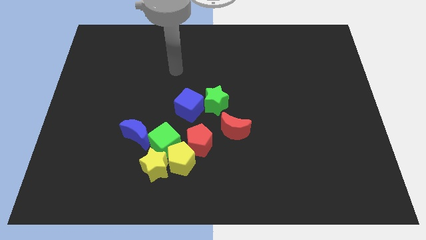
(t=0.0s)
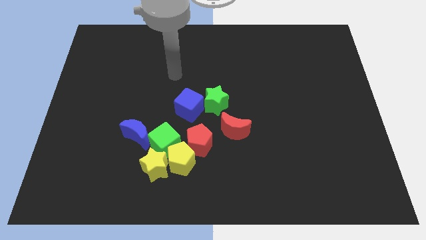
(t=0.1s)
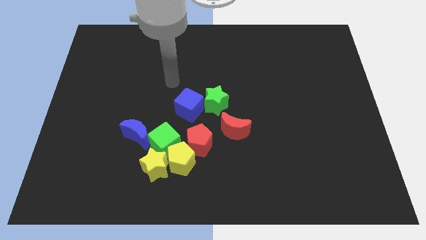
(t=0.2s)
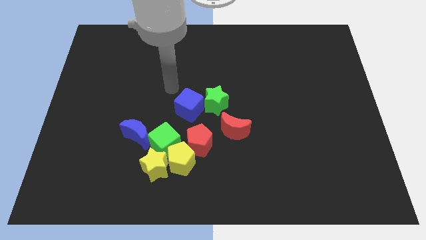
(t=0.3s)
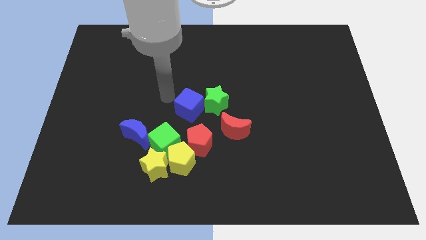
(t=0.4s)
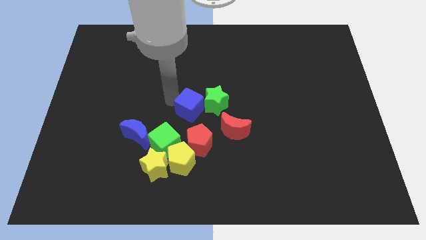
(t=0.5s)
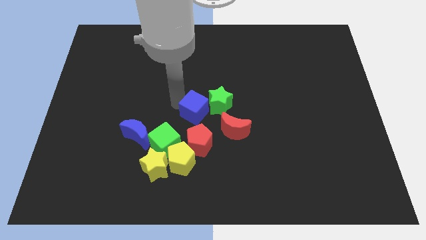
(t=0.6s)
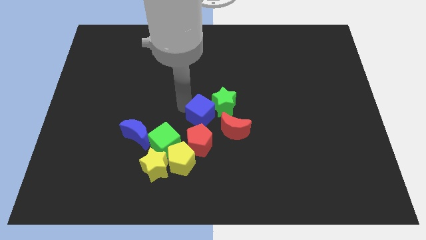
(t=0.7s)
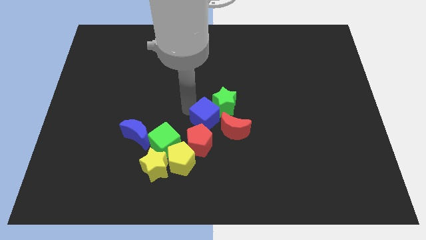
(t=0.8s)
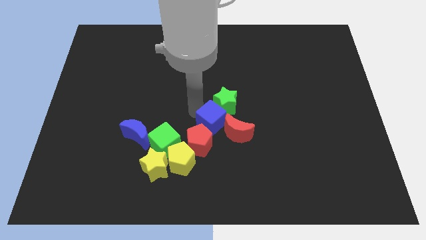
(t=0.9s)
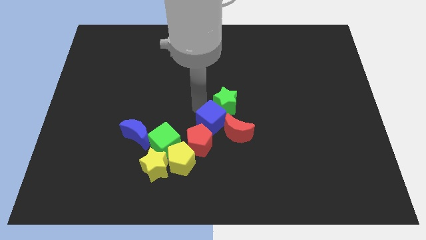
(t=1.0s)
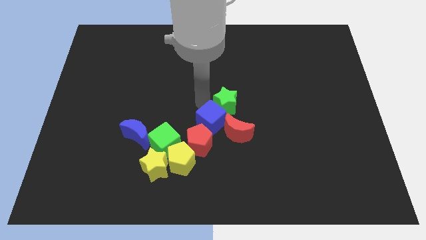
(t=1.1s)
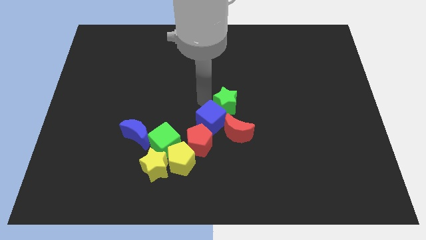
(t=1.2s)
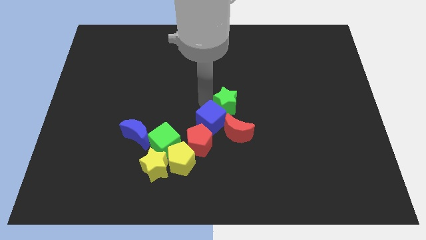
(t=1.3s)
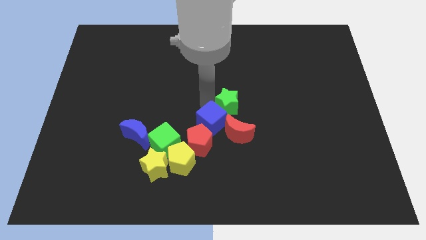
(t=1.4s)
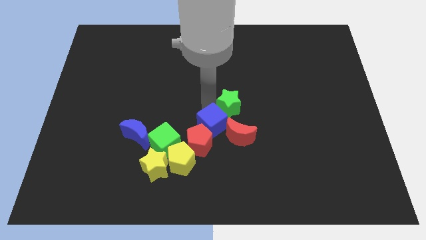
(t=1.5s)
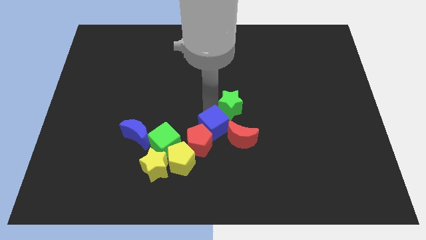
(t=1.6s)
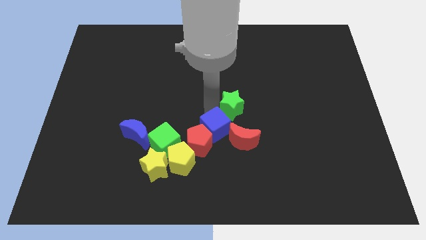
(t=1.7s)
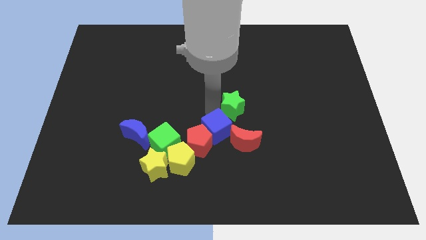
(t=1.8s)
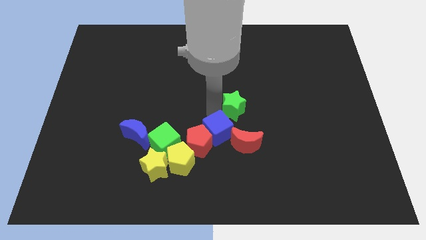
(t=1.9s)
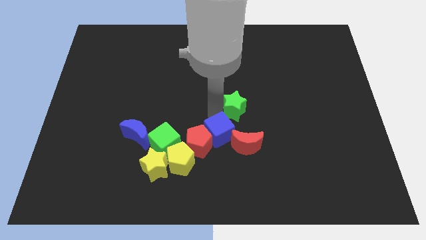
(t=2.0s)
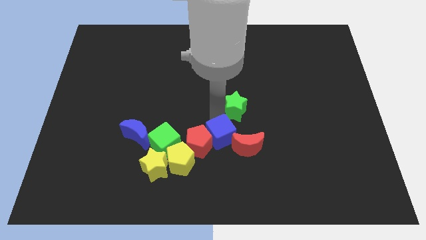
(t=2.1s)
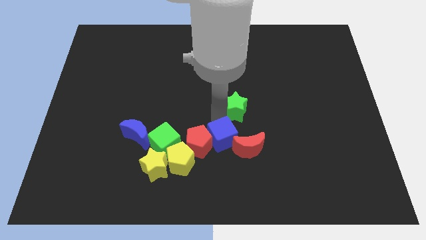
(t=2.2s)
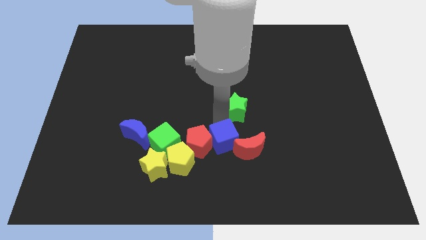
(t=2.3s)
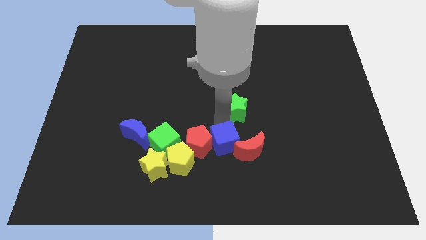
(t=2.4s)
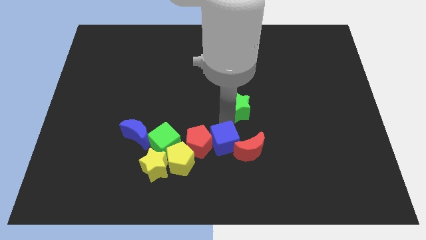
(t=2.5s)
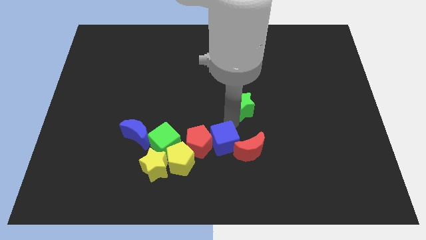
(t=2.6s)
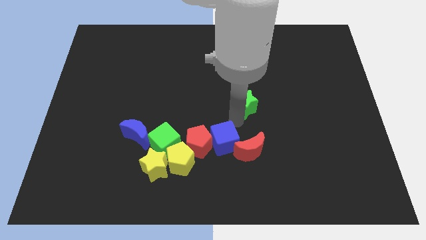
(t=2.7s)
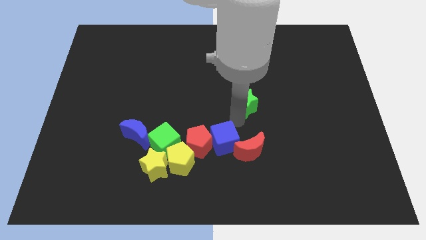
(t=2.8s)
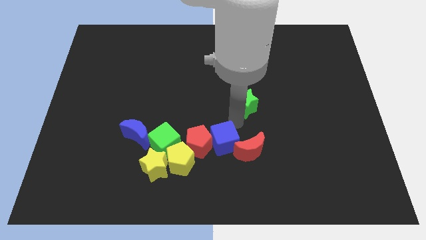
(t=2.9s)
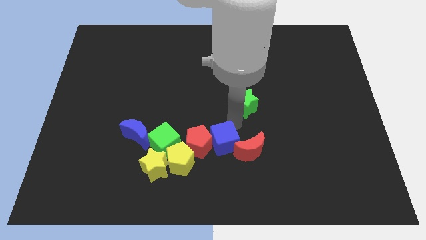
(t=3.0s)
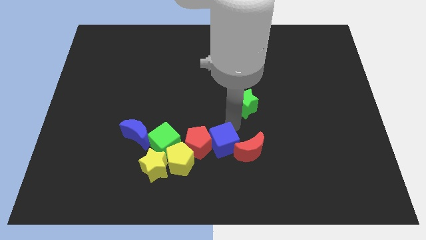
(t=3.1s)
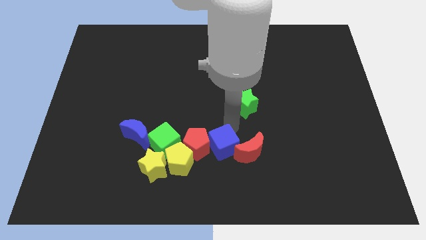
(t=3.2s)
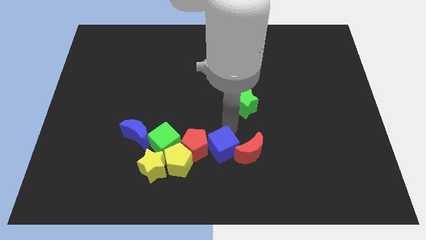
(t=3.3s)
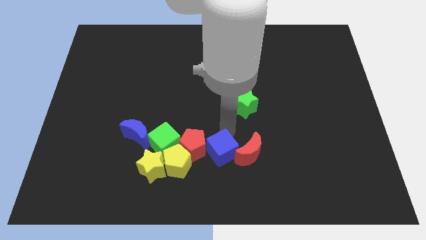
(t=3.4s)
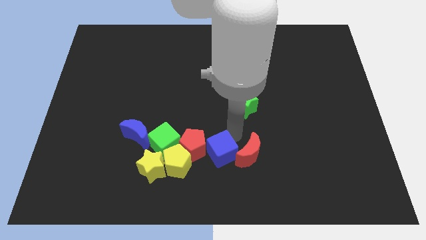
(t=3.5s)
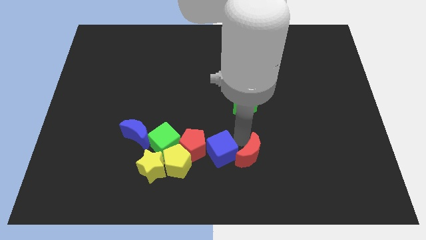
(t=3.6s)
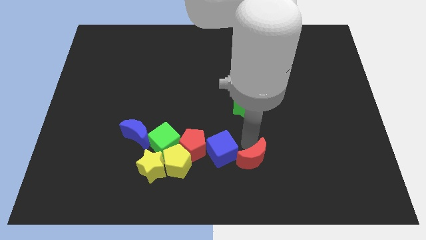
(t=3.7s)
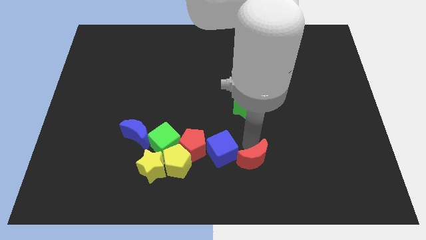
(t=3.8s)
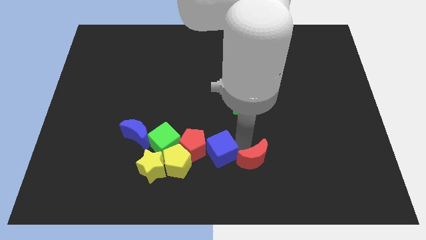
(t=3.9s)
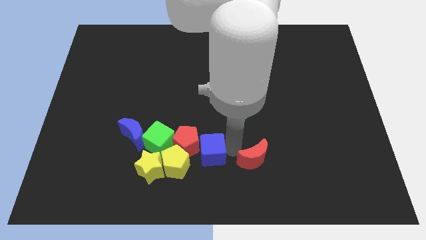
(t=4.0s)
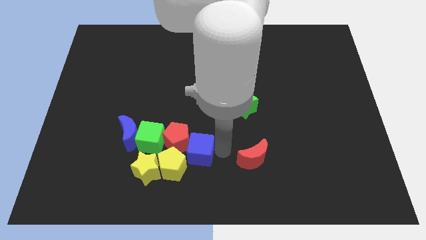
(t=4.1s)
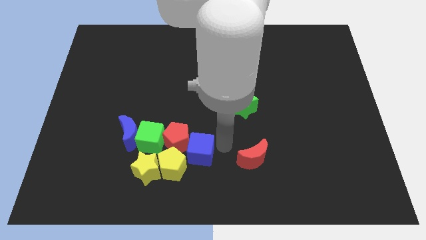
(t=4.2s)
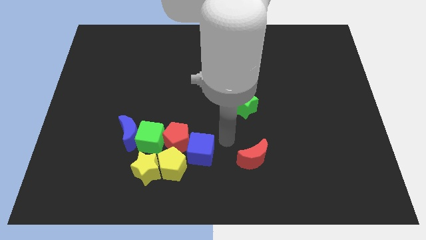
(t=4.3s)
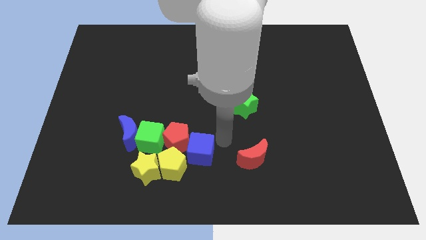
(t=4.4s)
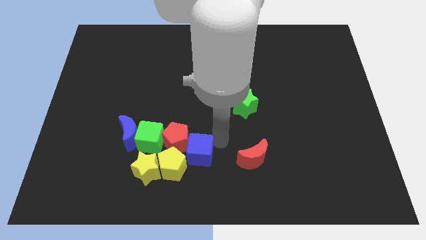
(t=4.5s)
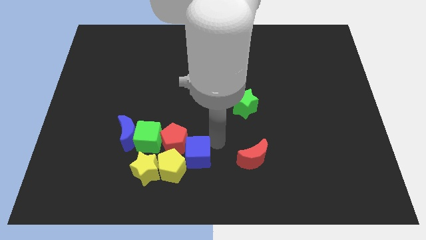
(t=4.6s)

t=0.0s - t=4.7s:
move the blue cube close to the yellow pentagon

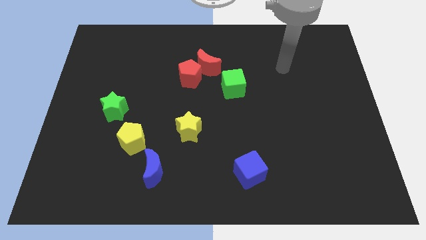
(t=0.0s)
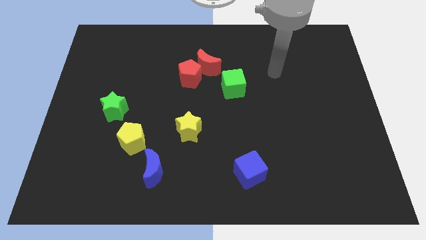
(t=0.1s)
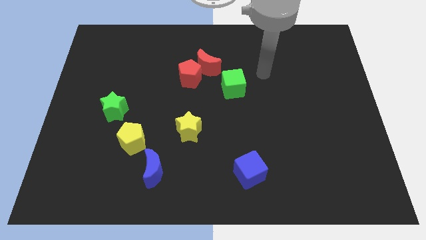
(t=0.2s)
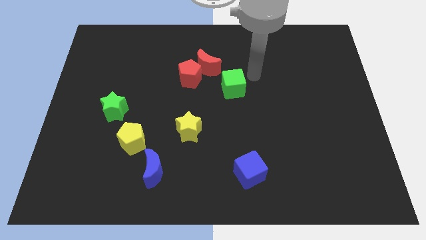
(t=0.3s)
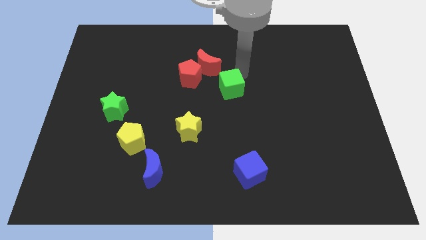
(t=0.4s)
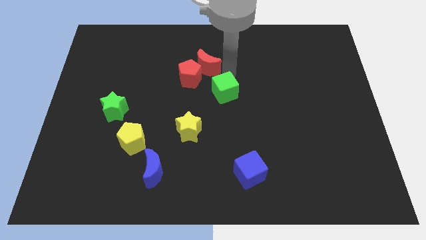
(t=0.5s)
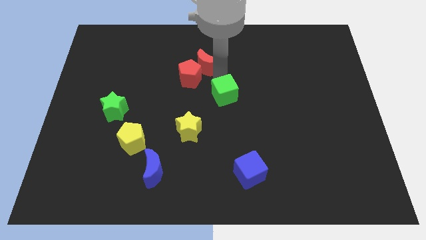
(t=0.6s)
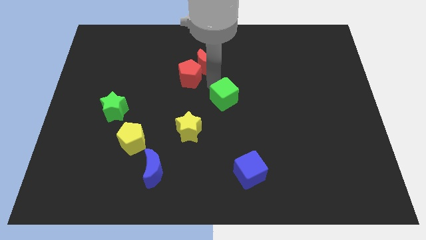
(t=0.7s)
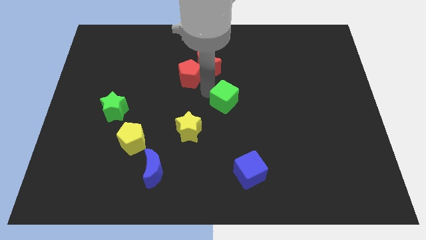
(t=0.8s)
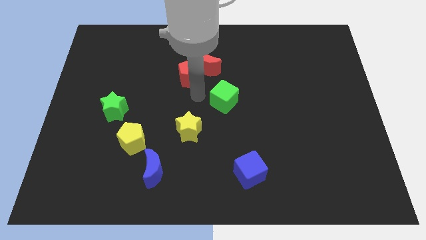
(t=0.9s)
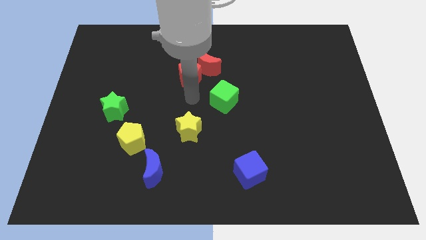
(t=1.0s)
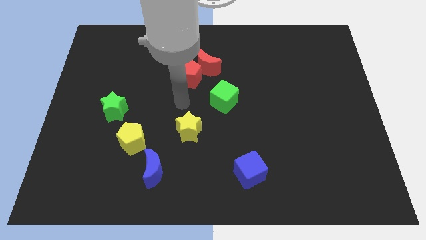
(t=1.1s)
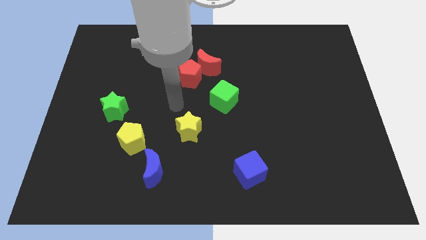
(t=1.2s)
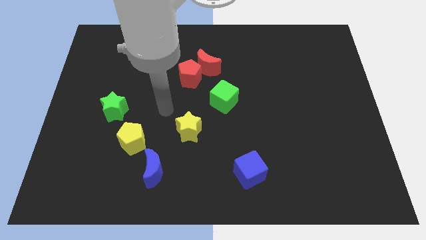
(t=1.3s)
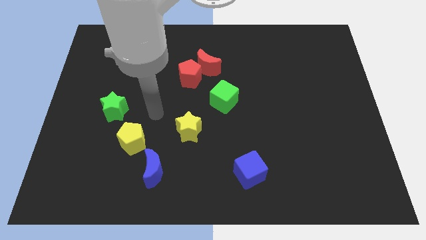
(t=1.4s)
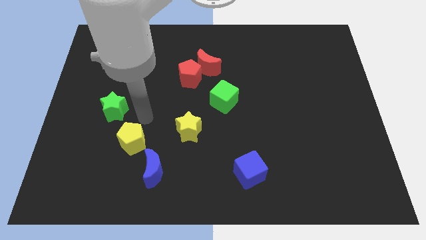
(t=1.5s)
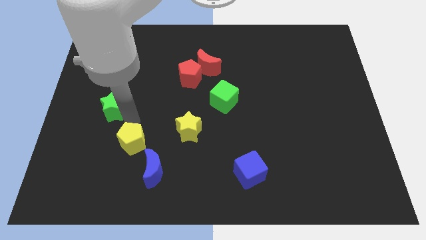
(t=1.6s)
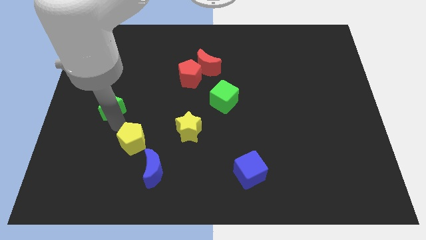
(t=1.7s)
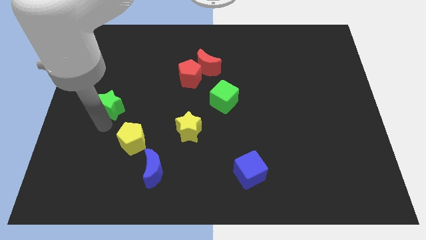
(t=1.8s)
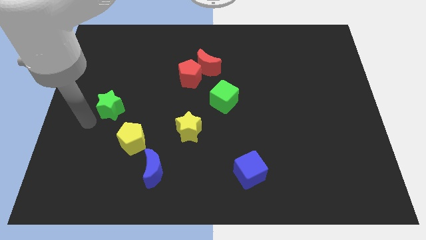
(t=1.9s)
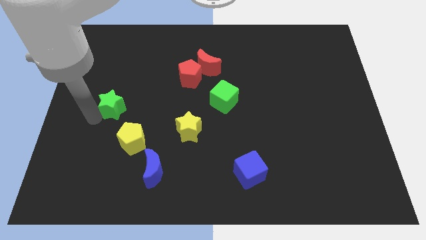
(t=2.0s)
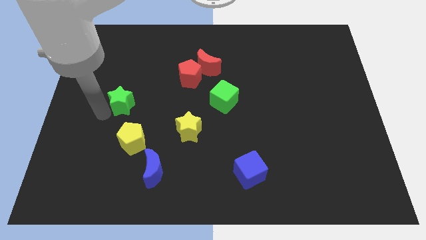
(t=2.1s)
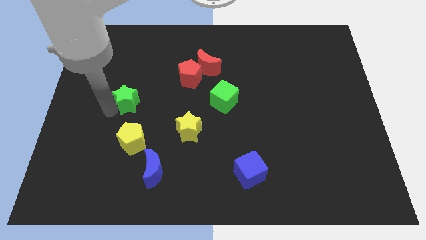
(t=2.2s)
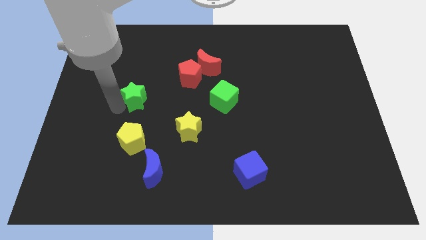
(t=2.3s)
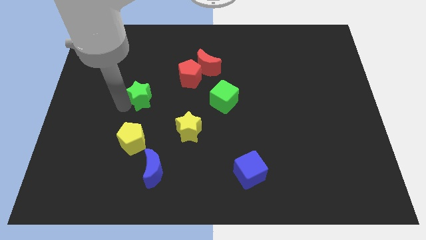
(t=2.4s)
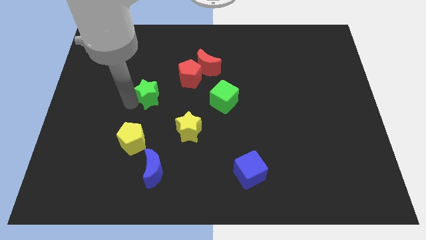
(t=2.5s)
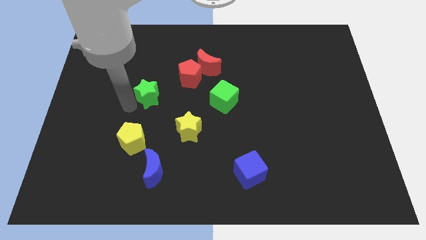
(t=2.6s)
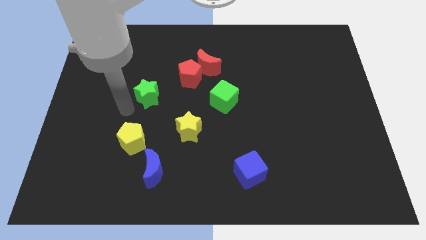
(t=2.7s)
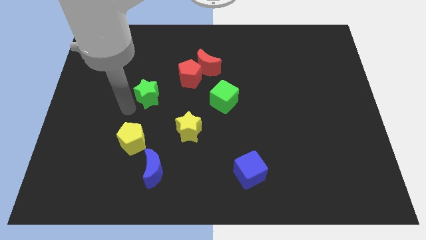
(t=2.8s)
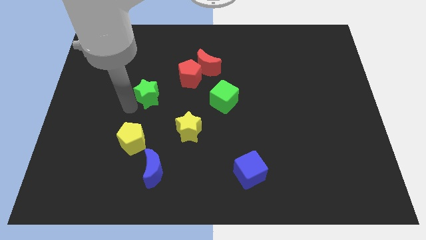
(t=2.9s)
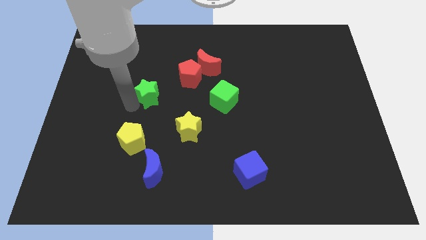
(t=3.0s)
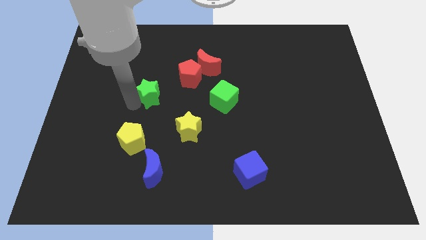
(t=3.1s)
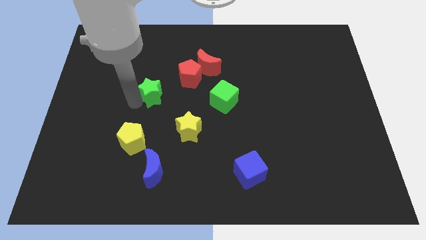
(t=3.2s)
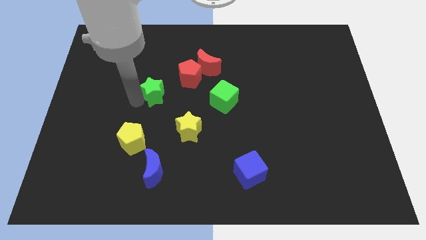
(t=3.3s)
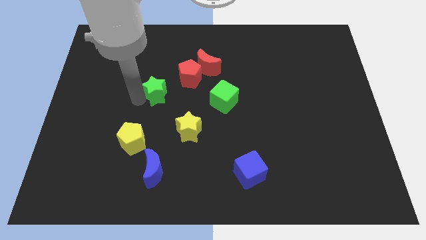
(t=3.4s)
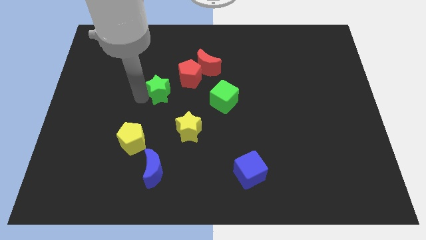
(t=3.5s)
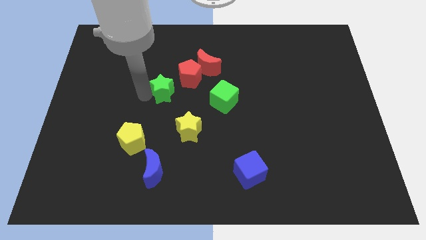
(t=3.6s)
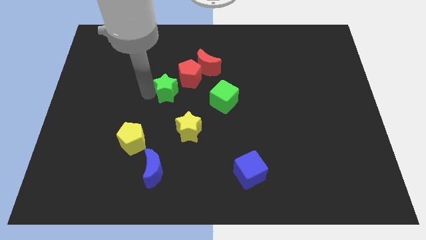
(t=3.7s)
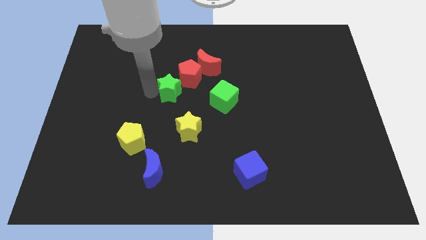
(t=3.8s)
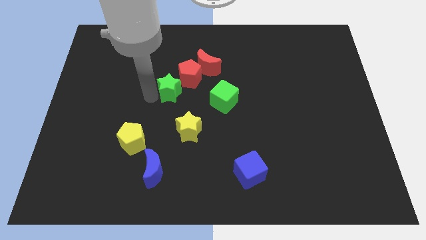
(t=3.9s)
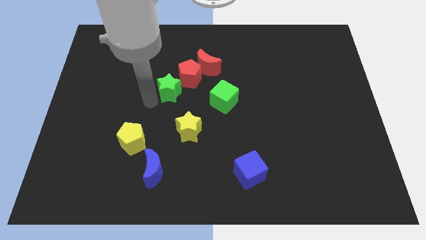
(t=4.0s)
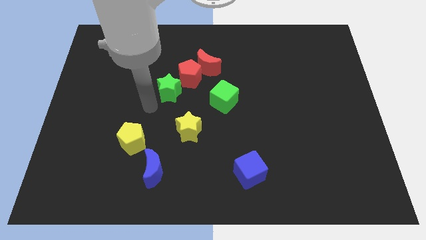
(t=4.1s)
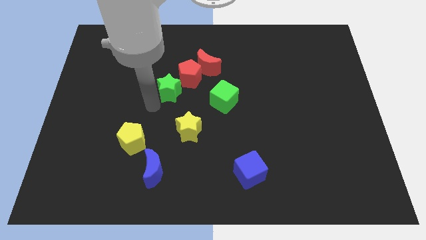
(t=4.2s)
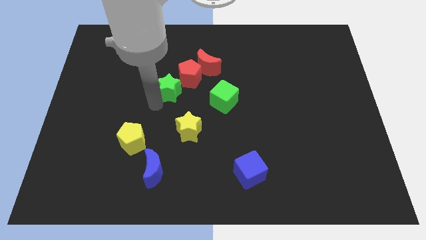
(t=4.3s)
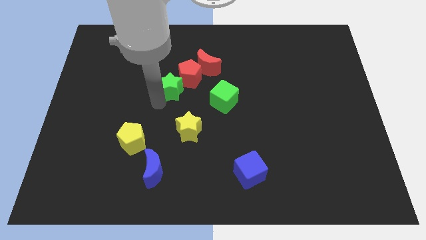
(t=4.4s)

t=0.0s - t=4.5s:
push the green star to the red pentagon
